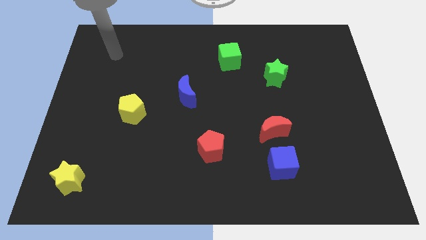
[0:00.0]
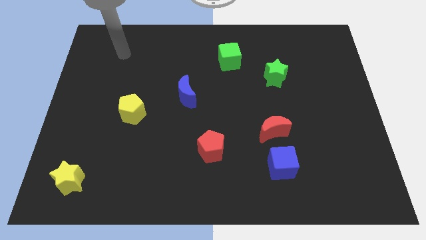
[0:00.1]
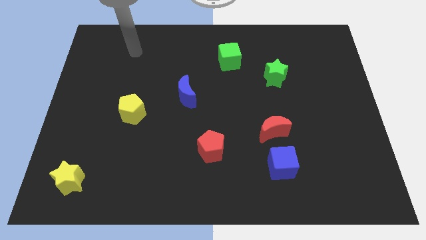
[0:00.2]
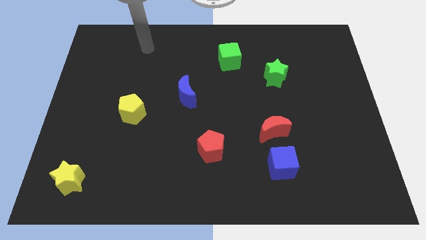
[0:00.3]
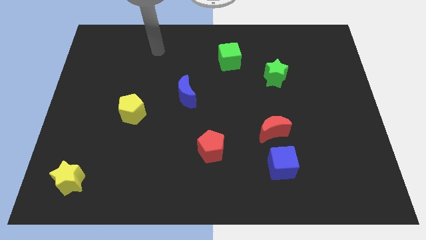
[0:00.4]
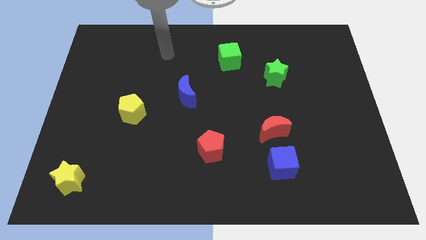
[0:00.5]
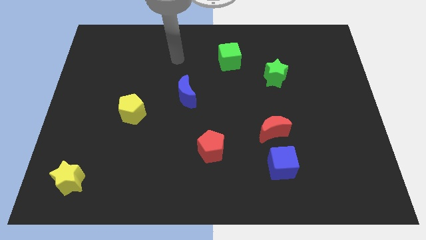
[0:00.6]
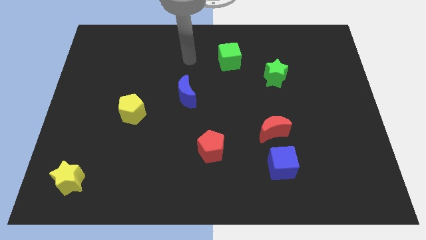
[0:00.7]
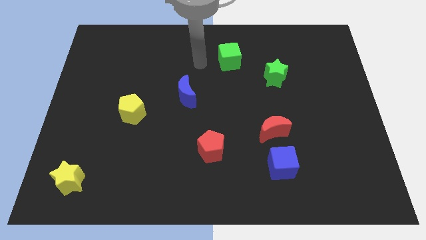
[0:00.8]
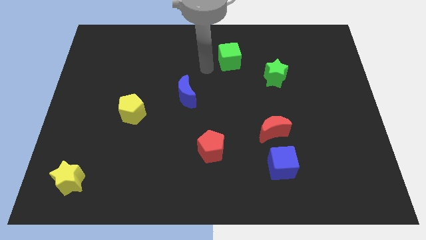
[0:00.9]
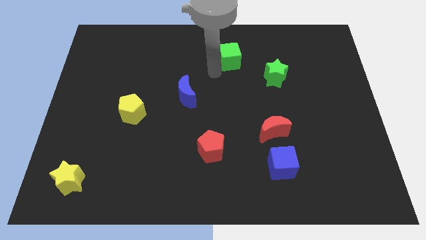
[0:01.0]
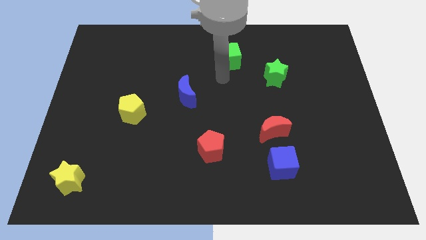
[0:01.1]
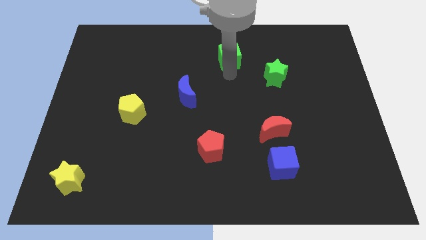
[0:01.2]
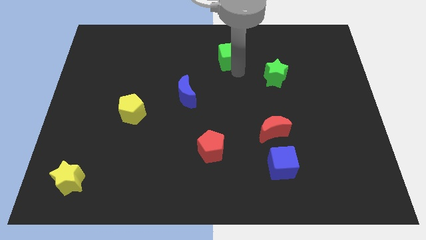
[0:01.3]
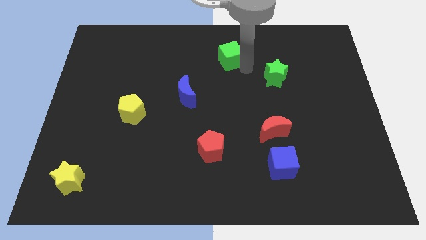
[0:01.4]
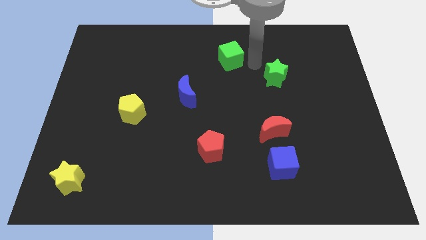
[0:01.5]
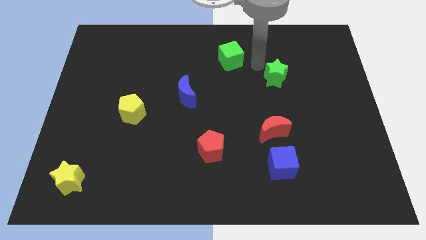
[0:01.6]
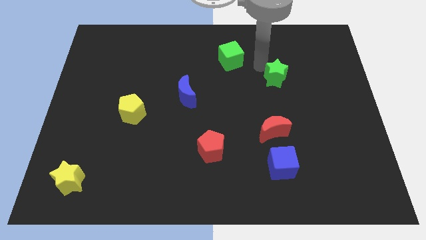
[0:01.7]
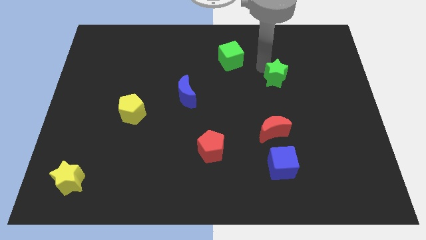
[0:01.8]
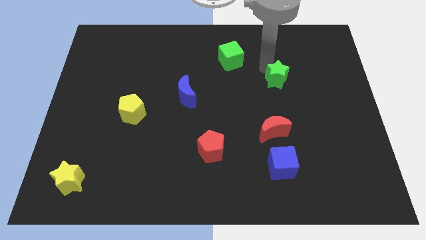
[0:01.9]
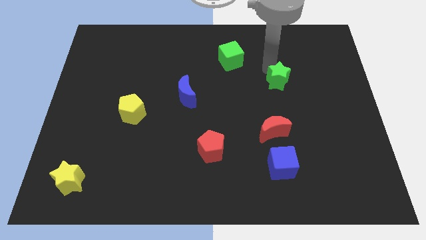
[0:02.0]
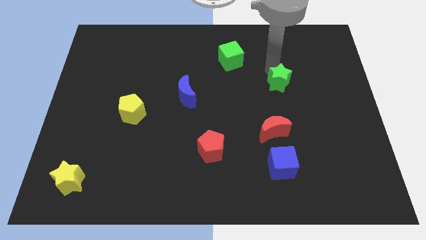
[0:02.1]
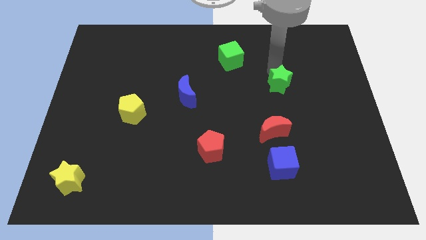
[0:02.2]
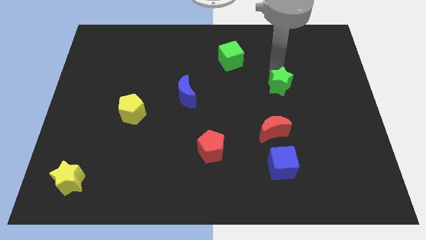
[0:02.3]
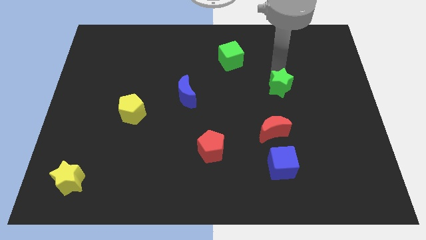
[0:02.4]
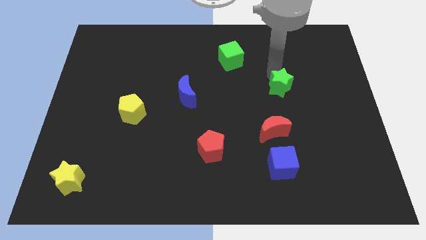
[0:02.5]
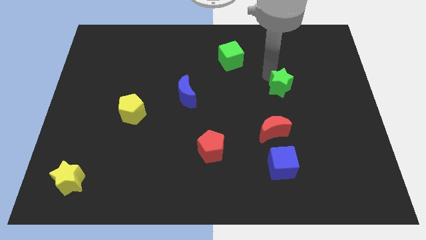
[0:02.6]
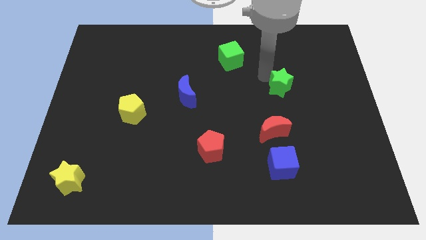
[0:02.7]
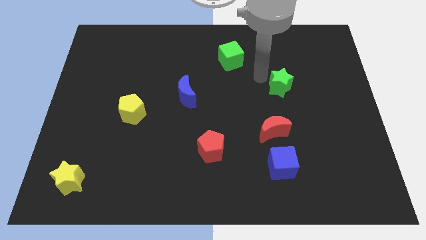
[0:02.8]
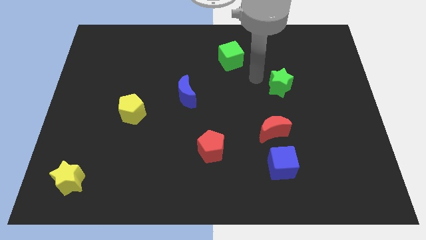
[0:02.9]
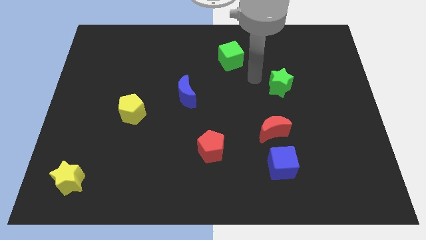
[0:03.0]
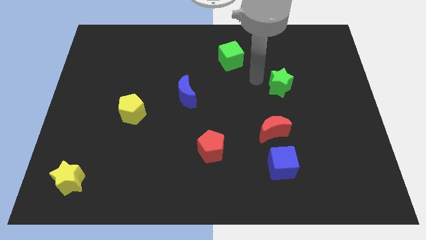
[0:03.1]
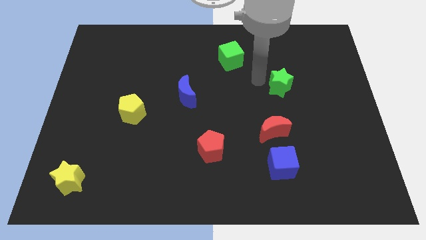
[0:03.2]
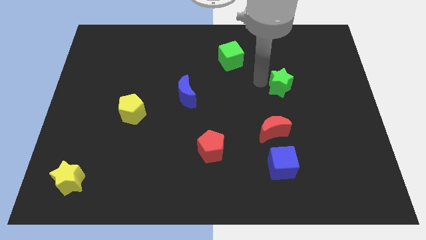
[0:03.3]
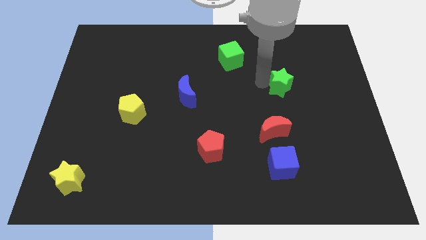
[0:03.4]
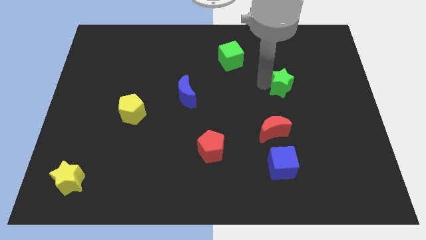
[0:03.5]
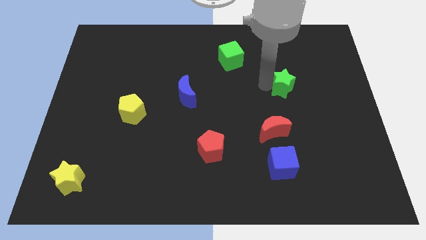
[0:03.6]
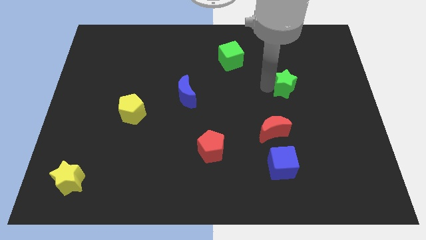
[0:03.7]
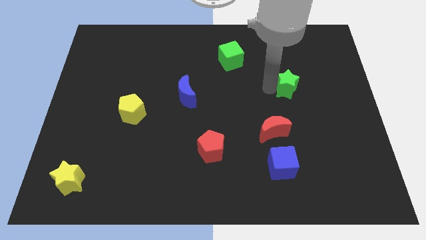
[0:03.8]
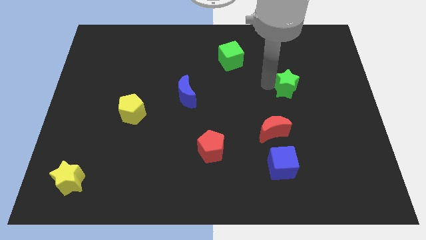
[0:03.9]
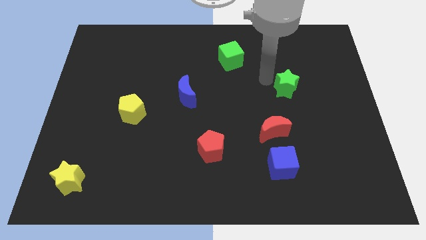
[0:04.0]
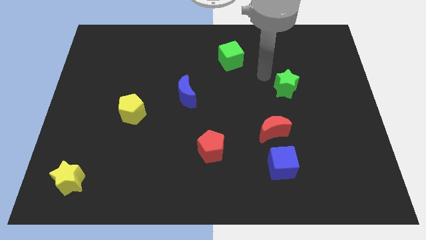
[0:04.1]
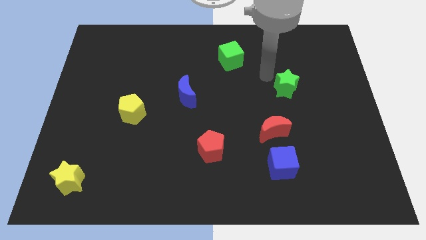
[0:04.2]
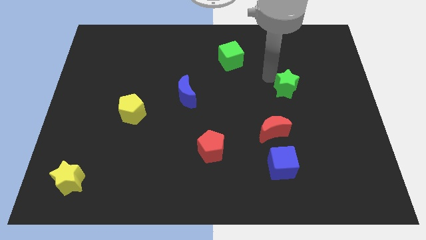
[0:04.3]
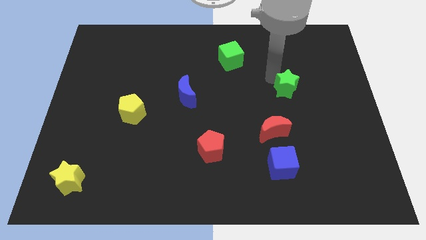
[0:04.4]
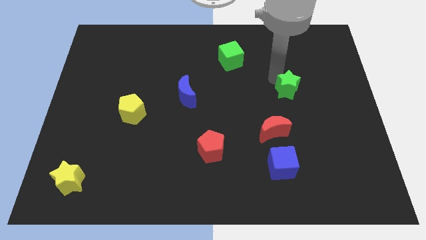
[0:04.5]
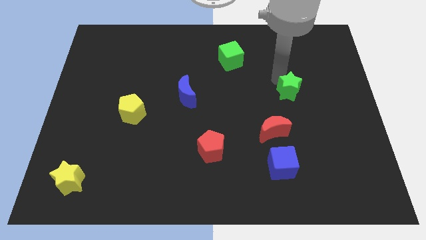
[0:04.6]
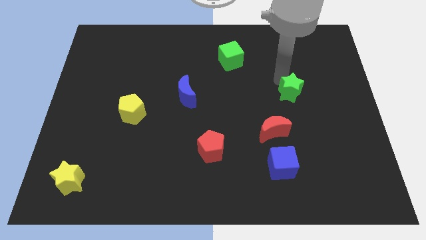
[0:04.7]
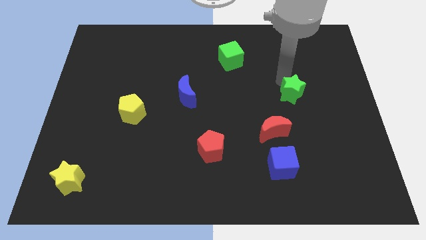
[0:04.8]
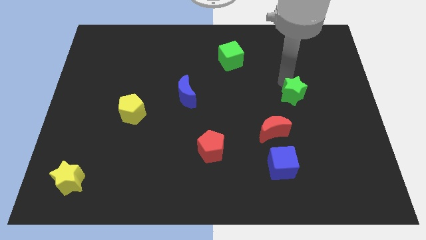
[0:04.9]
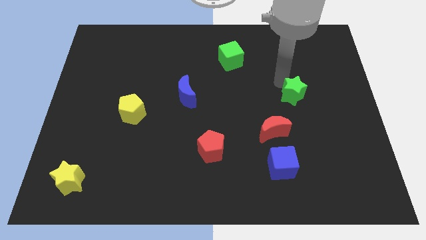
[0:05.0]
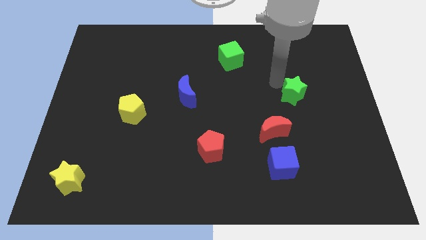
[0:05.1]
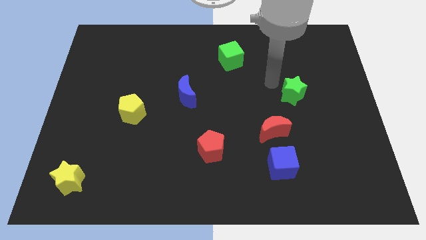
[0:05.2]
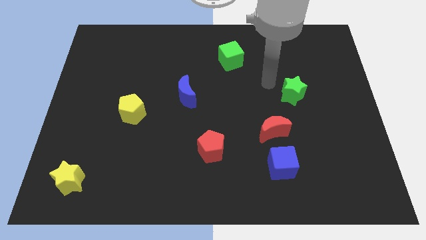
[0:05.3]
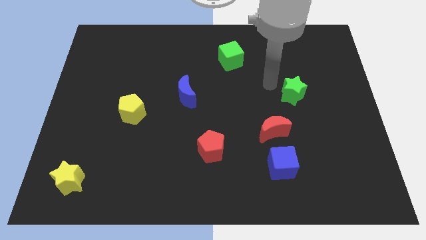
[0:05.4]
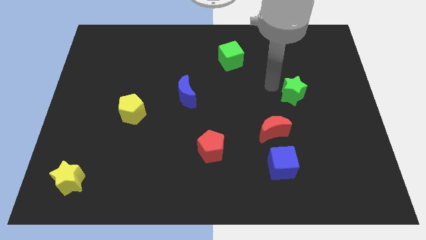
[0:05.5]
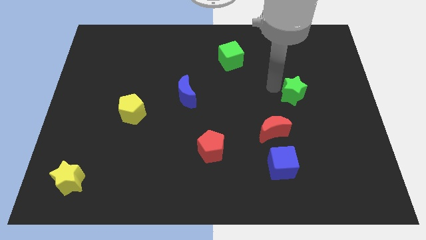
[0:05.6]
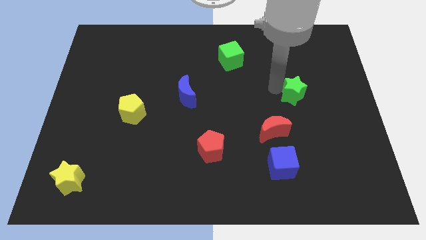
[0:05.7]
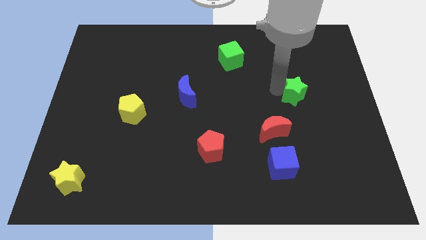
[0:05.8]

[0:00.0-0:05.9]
slightly move the green star downwards and right

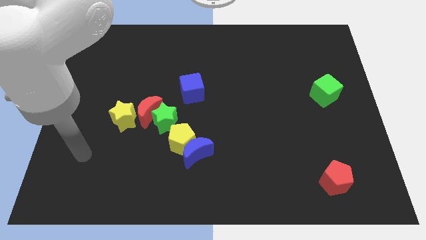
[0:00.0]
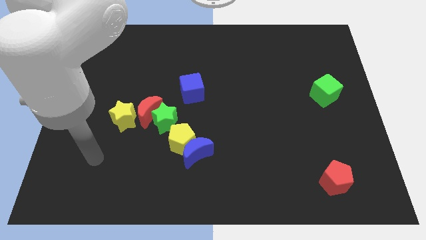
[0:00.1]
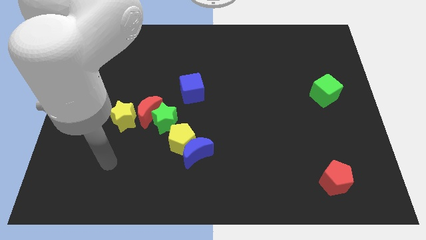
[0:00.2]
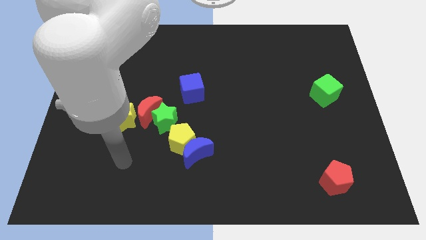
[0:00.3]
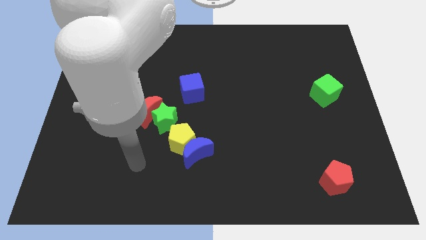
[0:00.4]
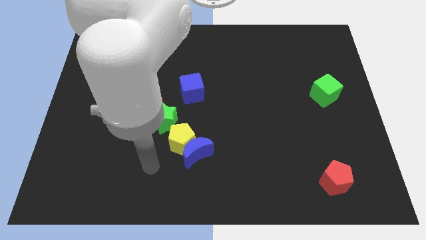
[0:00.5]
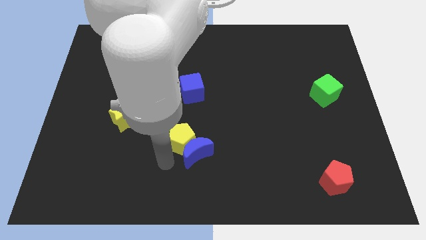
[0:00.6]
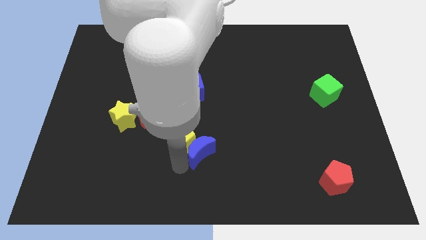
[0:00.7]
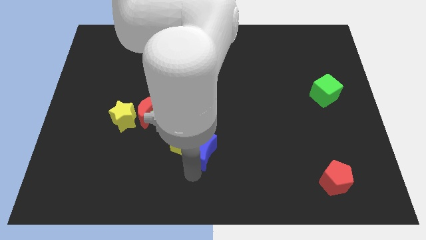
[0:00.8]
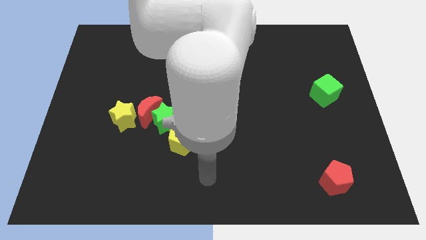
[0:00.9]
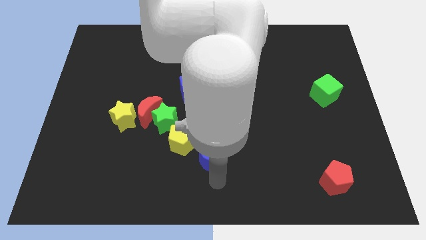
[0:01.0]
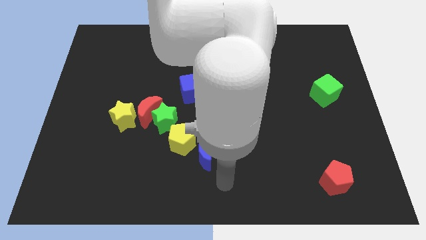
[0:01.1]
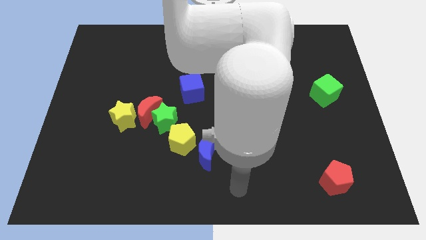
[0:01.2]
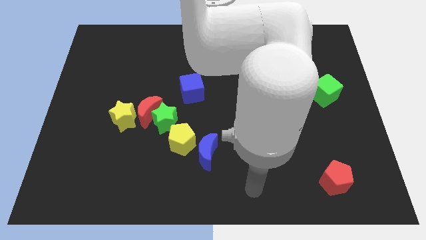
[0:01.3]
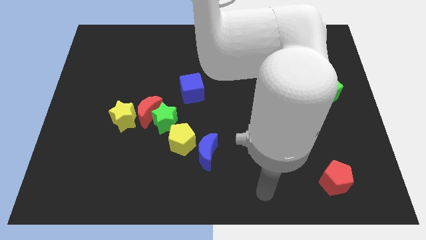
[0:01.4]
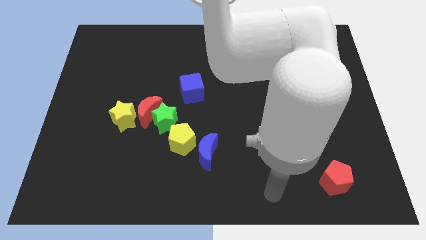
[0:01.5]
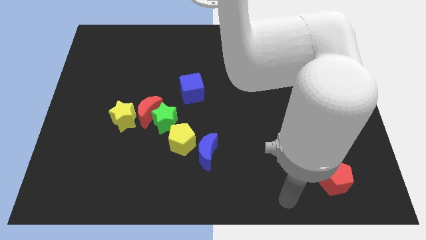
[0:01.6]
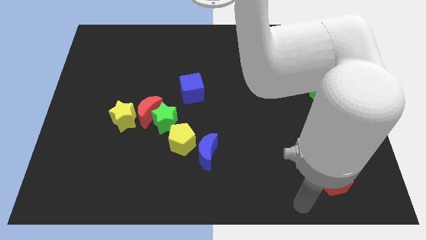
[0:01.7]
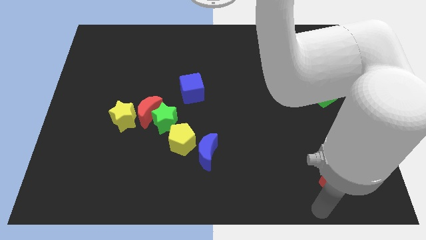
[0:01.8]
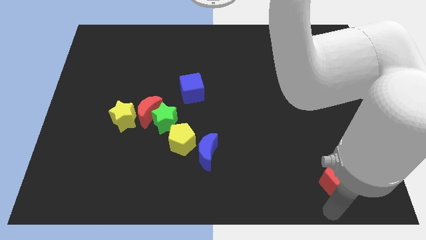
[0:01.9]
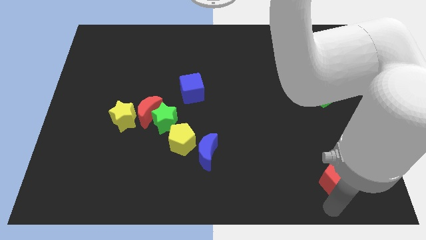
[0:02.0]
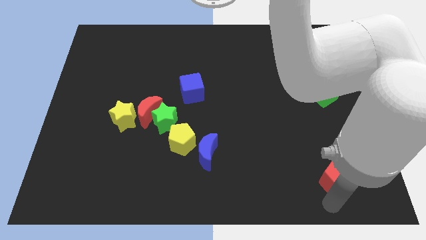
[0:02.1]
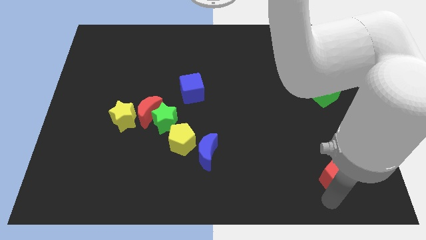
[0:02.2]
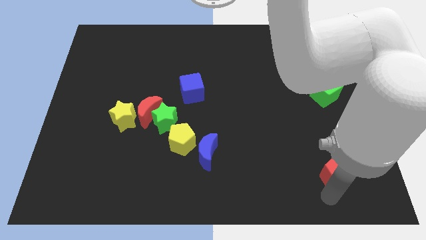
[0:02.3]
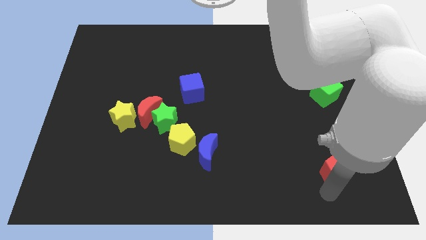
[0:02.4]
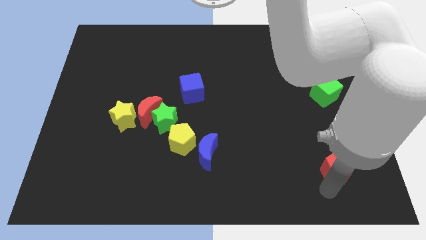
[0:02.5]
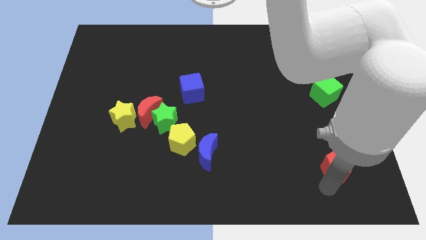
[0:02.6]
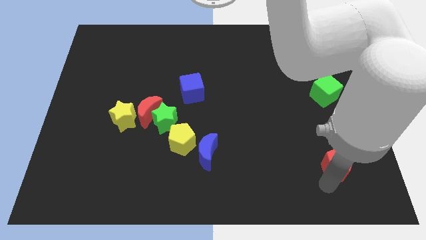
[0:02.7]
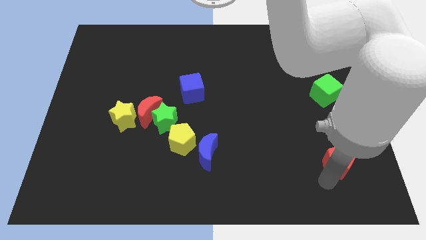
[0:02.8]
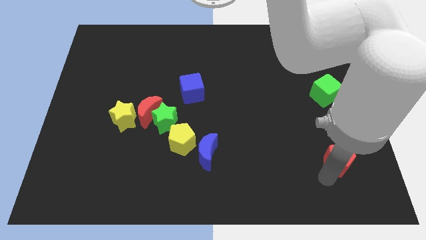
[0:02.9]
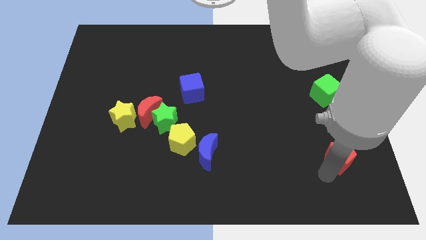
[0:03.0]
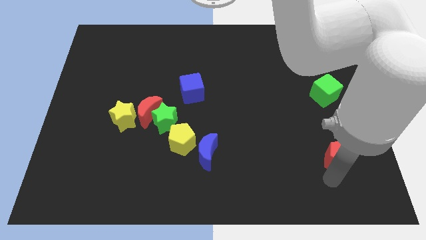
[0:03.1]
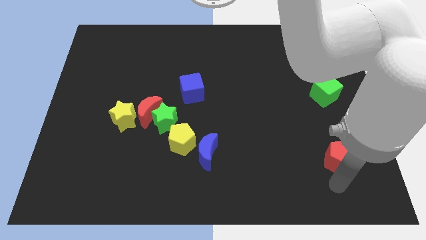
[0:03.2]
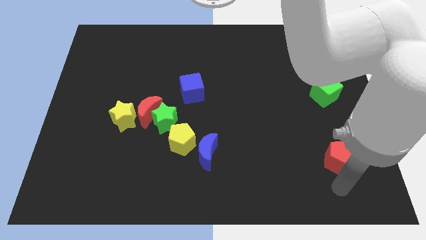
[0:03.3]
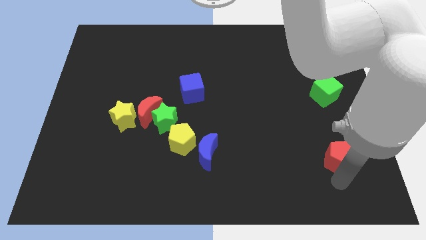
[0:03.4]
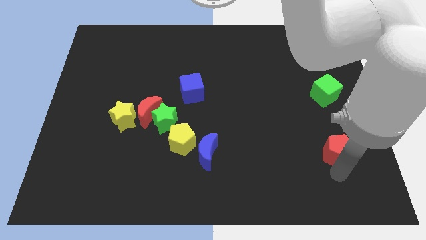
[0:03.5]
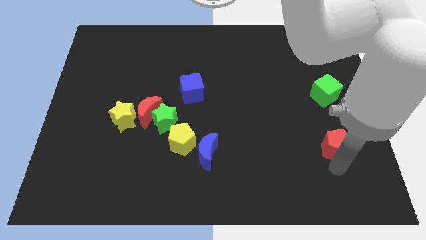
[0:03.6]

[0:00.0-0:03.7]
slide the red pentagon upwards a little bit
